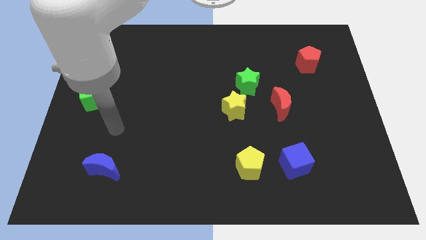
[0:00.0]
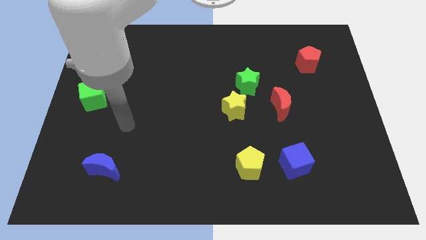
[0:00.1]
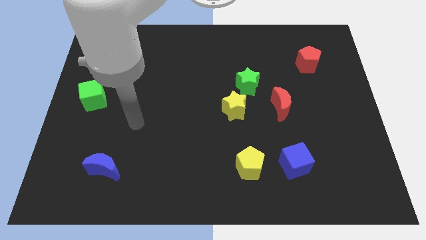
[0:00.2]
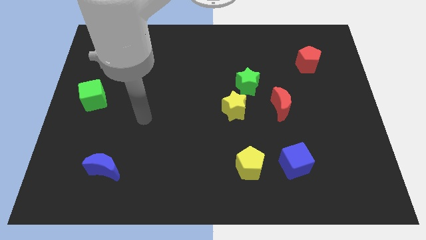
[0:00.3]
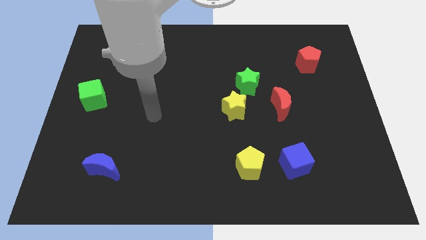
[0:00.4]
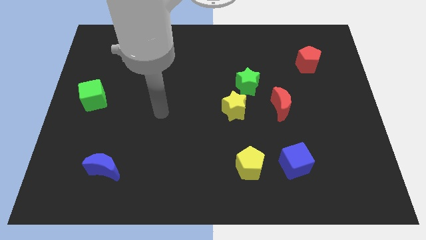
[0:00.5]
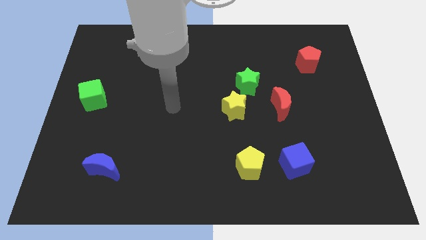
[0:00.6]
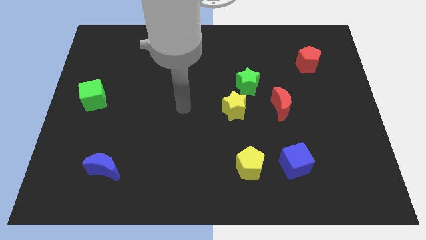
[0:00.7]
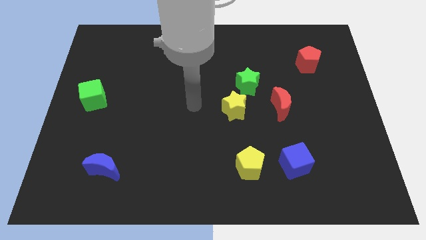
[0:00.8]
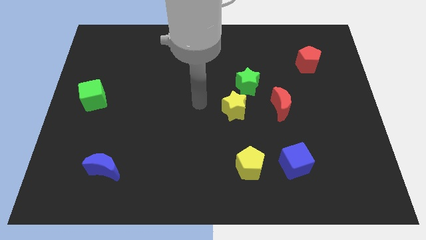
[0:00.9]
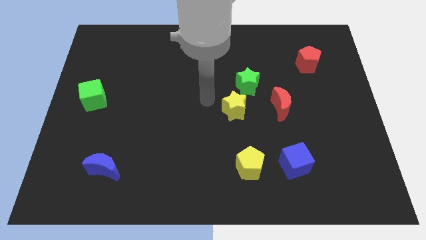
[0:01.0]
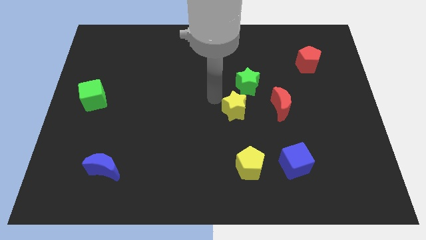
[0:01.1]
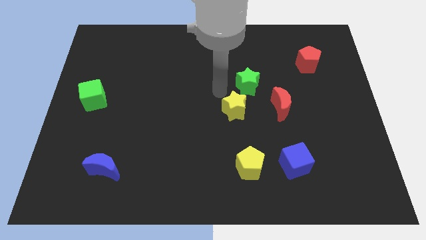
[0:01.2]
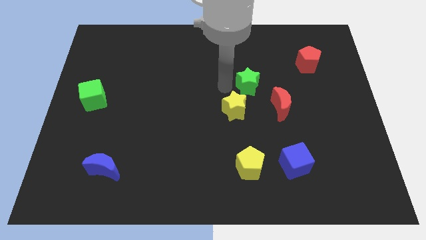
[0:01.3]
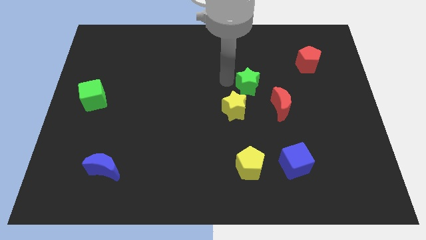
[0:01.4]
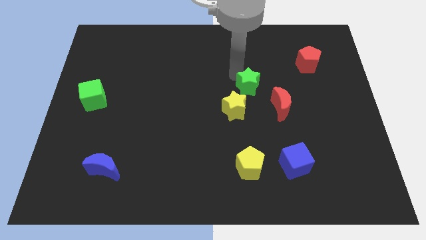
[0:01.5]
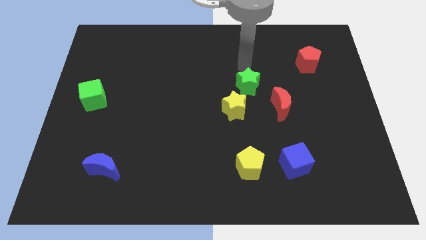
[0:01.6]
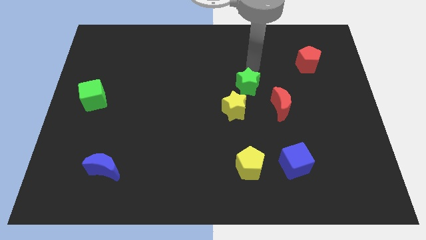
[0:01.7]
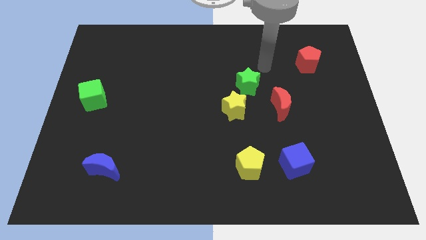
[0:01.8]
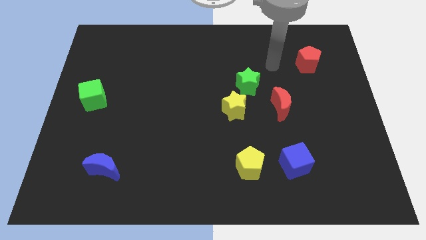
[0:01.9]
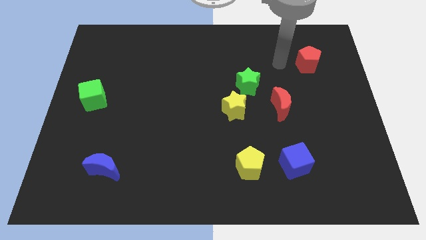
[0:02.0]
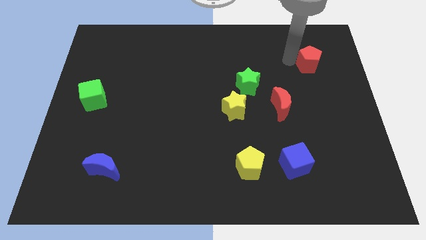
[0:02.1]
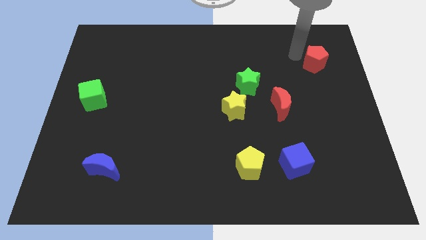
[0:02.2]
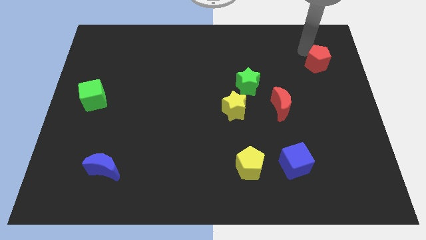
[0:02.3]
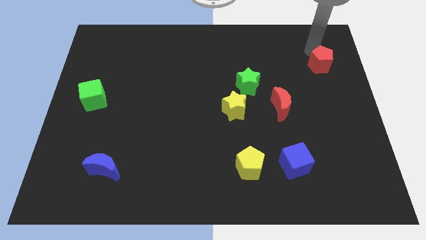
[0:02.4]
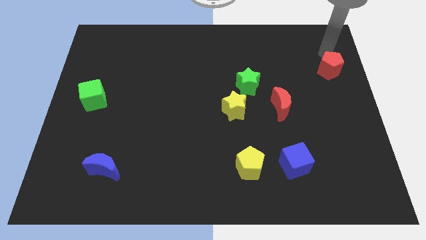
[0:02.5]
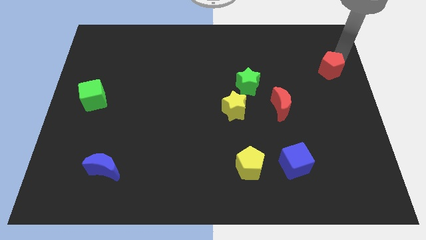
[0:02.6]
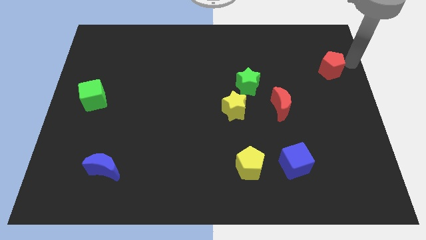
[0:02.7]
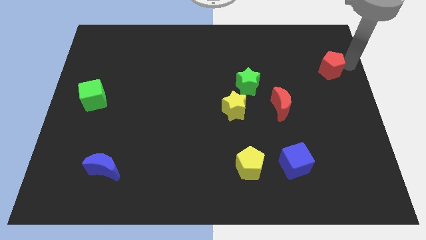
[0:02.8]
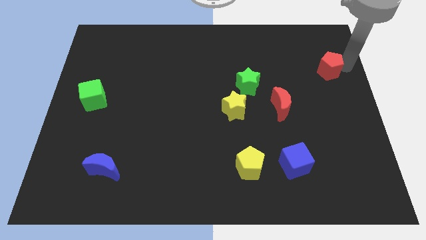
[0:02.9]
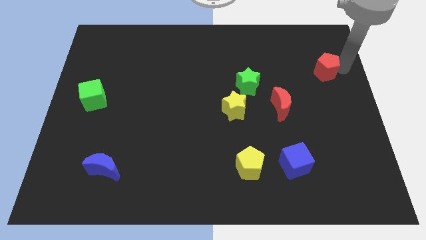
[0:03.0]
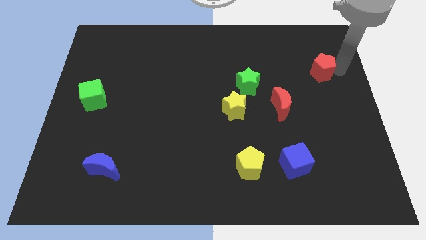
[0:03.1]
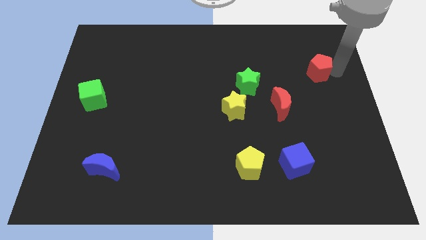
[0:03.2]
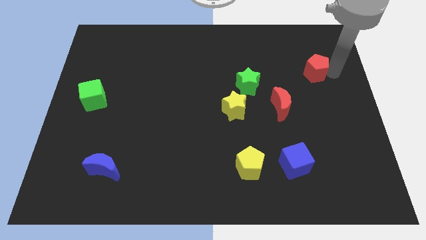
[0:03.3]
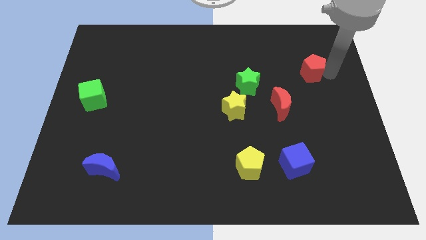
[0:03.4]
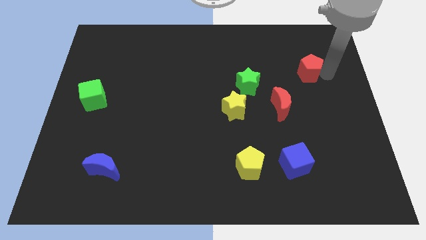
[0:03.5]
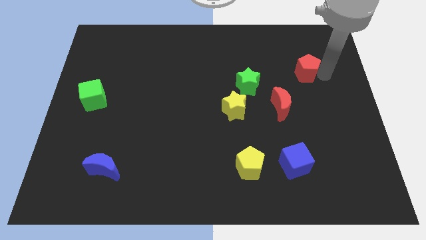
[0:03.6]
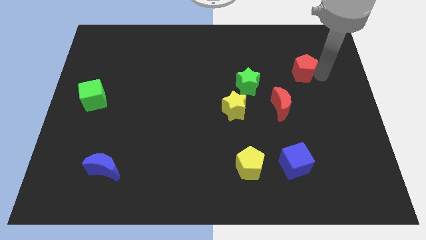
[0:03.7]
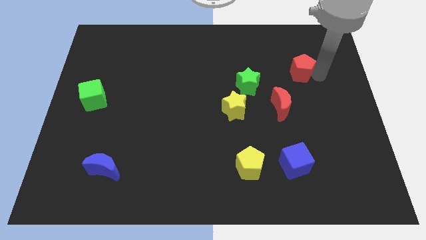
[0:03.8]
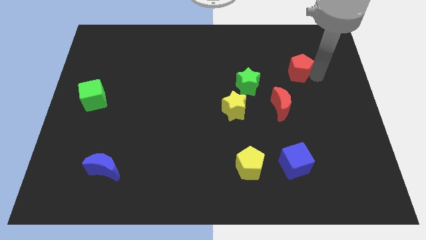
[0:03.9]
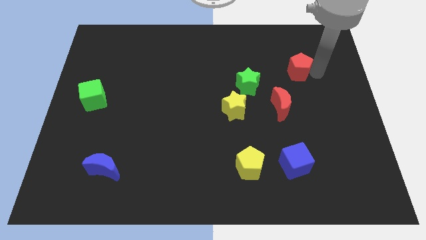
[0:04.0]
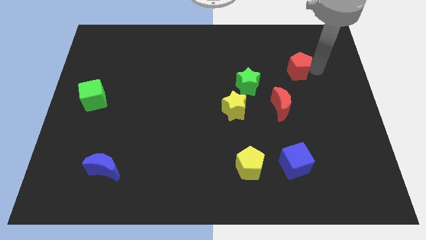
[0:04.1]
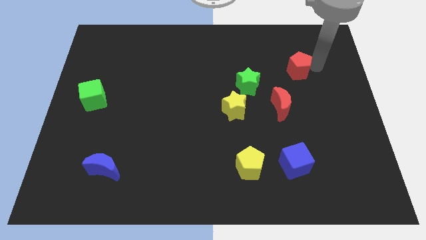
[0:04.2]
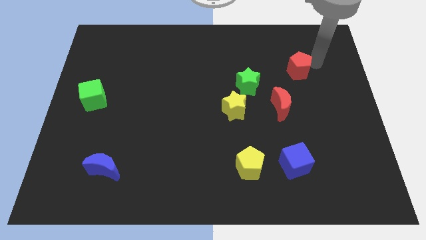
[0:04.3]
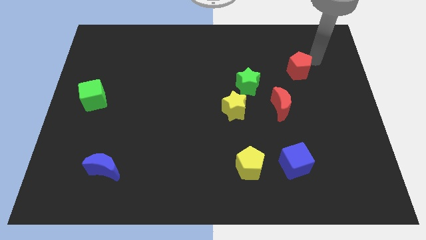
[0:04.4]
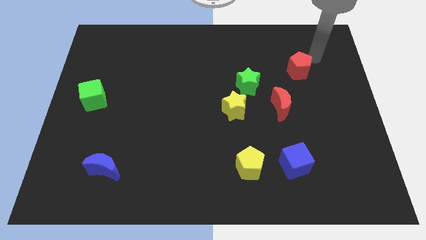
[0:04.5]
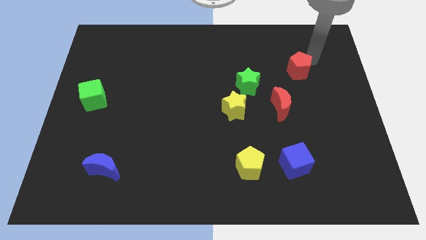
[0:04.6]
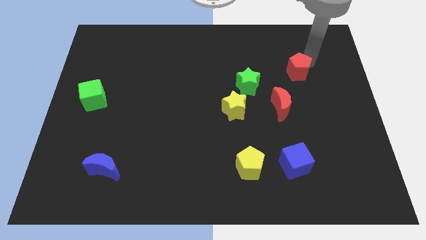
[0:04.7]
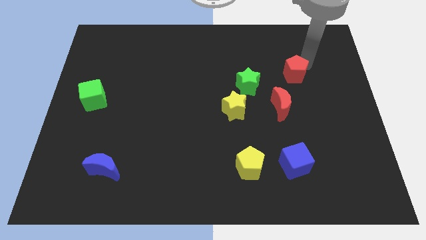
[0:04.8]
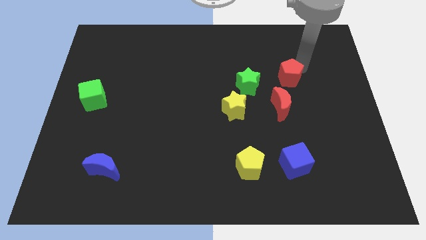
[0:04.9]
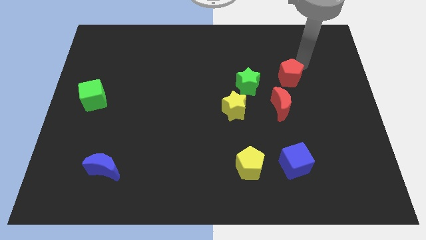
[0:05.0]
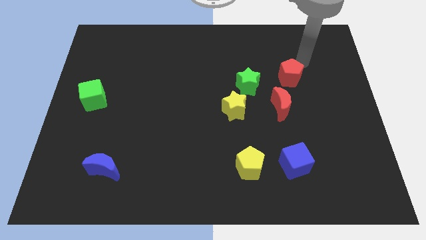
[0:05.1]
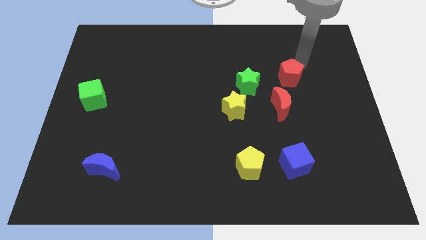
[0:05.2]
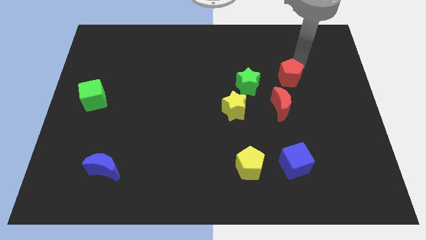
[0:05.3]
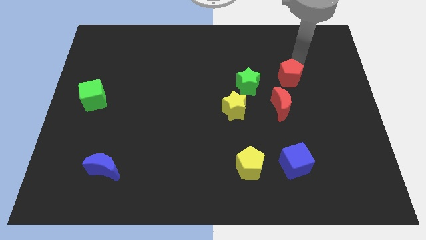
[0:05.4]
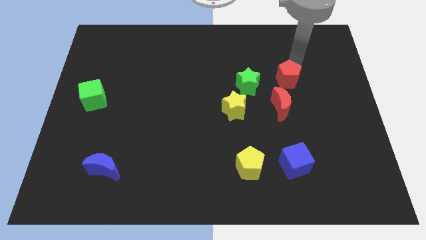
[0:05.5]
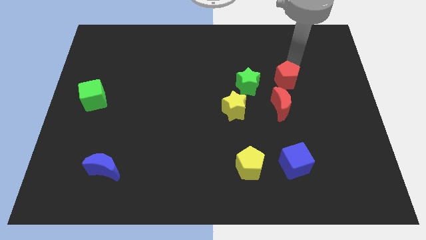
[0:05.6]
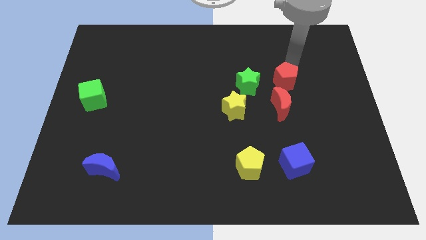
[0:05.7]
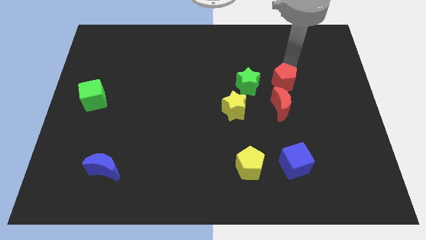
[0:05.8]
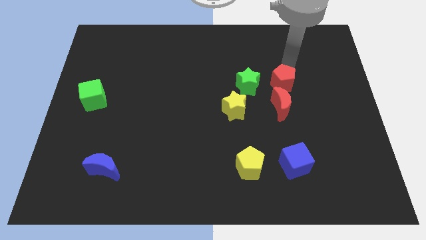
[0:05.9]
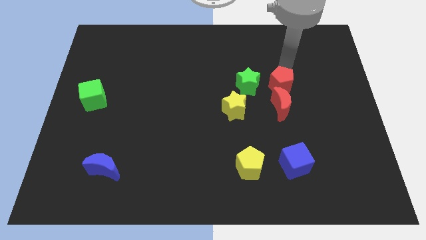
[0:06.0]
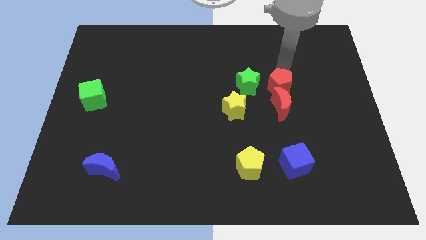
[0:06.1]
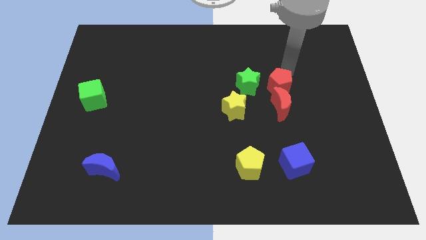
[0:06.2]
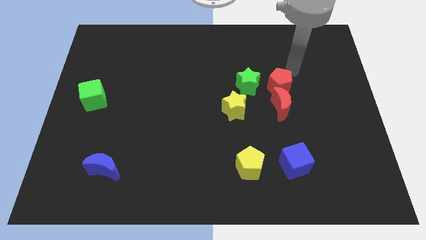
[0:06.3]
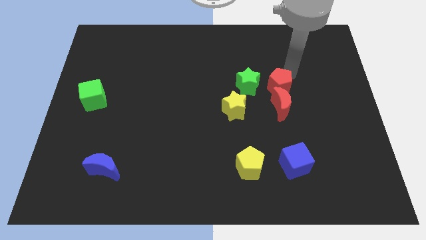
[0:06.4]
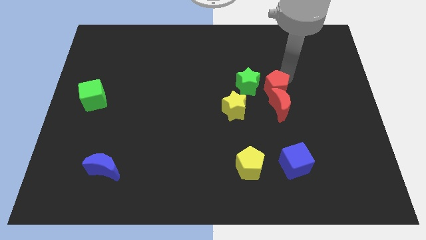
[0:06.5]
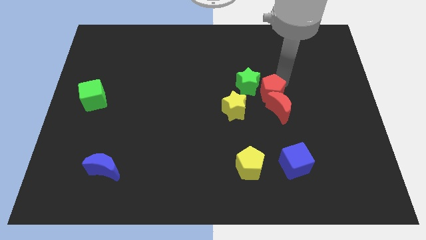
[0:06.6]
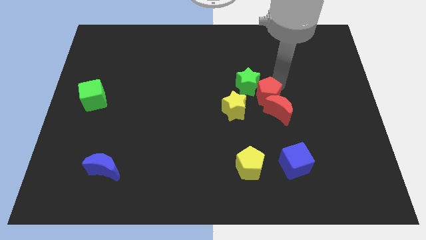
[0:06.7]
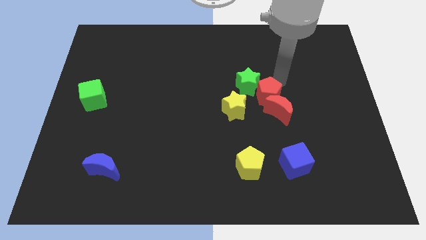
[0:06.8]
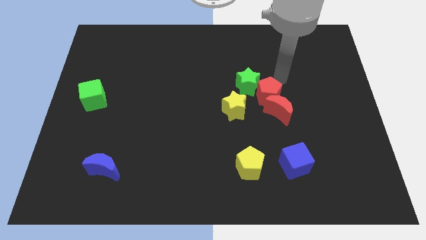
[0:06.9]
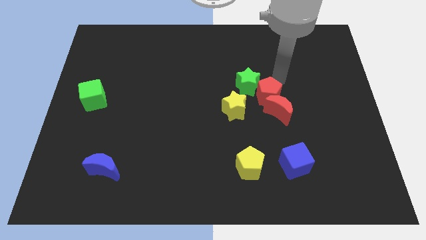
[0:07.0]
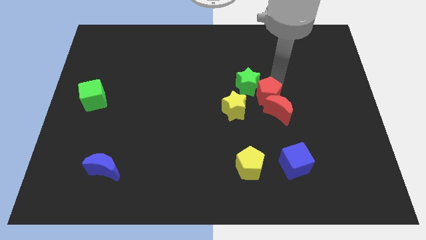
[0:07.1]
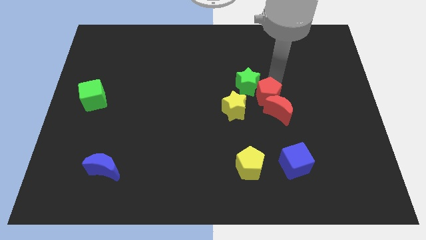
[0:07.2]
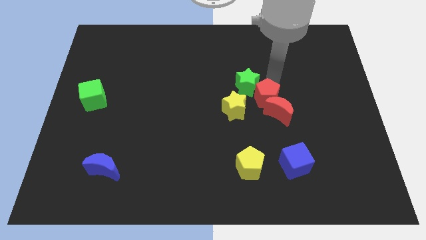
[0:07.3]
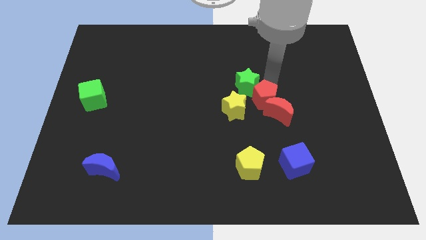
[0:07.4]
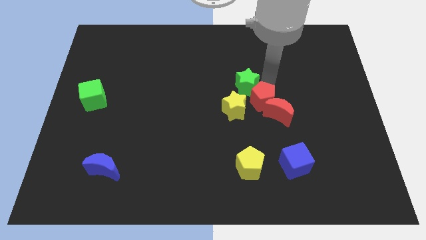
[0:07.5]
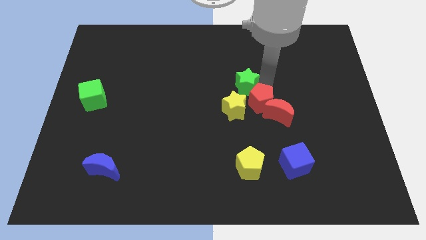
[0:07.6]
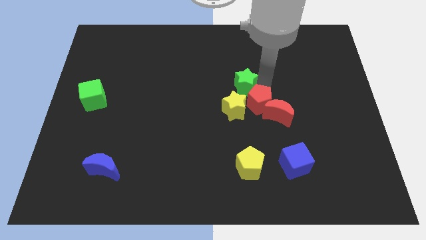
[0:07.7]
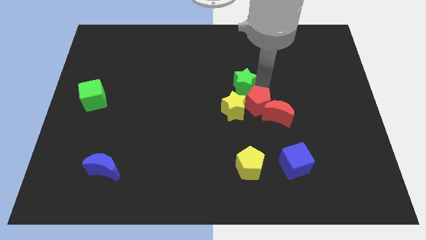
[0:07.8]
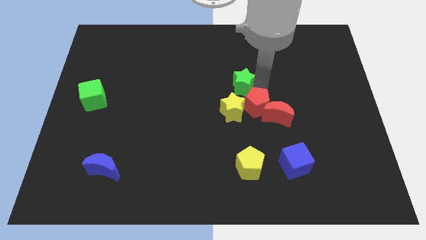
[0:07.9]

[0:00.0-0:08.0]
move the red pentagon diagonally downwards and to the left
